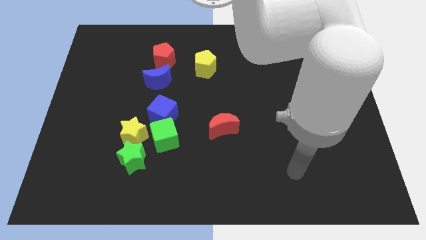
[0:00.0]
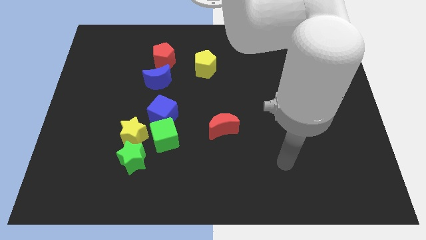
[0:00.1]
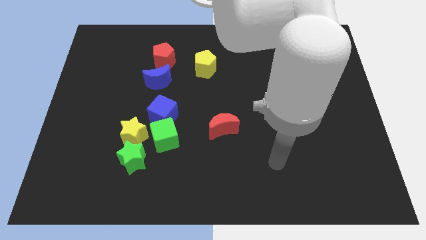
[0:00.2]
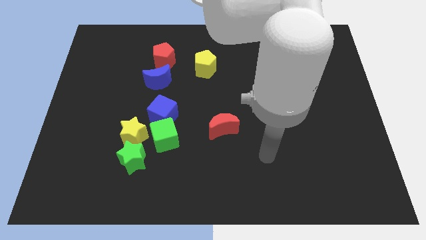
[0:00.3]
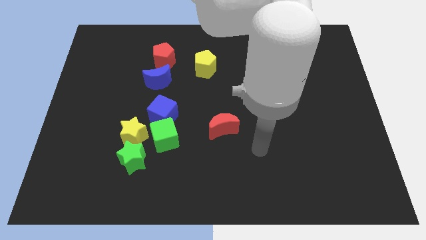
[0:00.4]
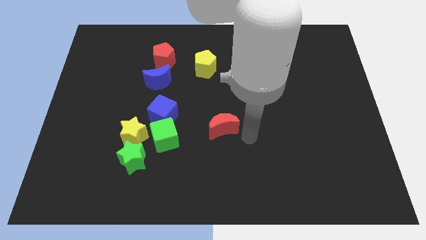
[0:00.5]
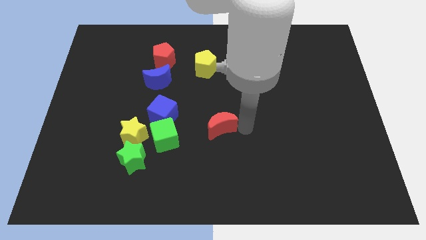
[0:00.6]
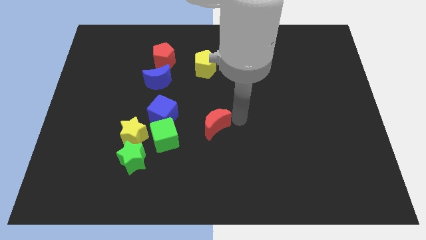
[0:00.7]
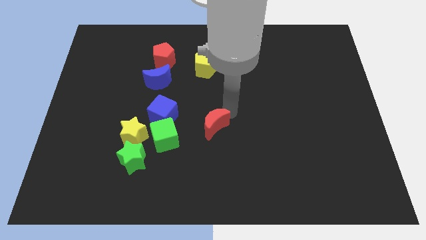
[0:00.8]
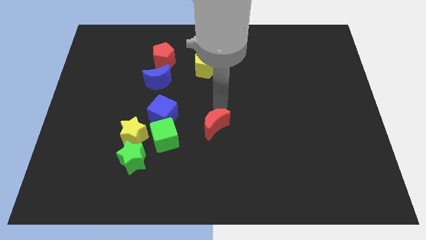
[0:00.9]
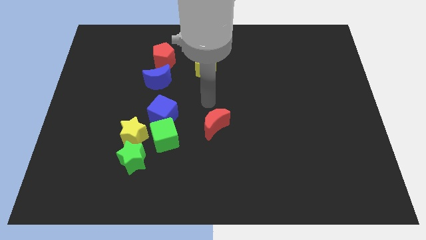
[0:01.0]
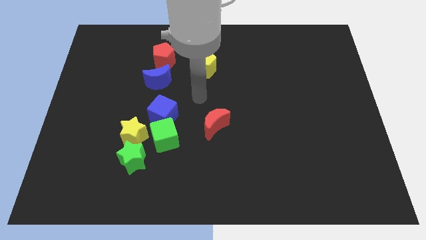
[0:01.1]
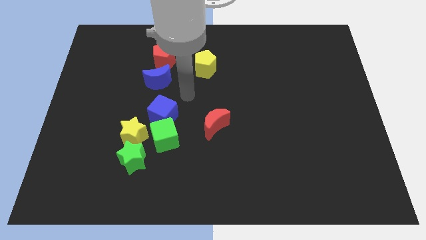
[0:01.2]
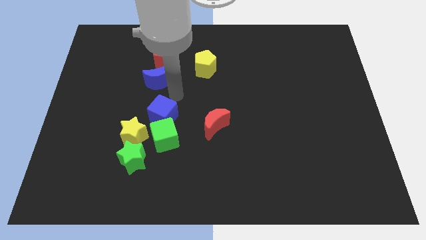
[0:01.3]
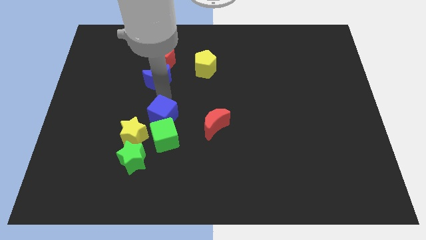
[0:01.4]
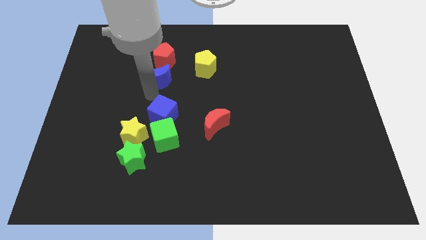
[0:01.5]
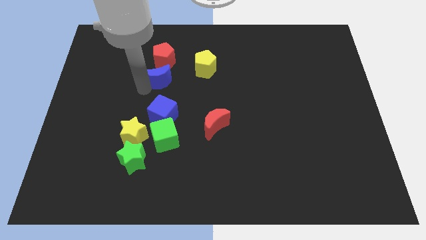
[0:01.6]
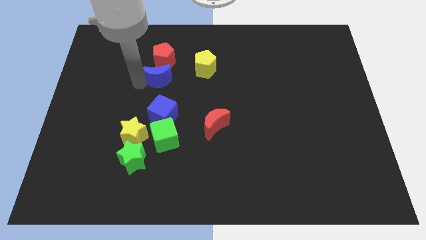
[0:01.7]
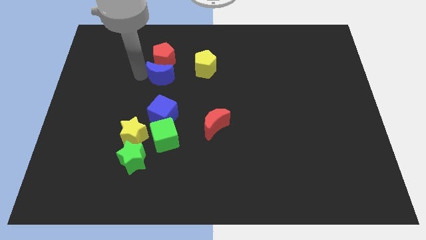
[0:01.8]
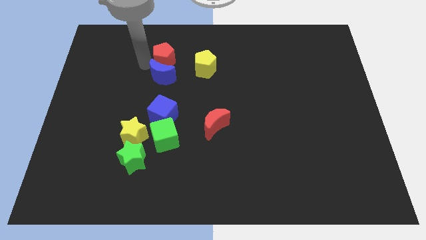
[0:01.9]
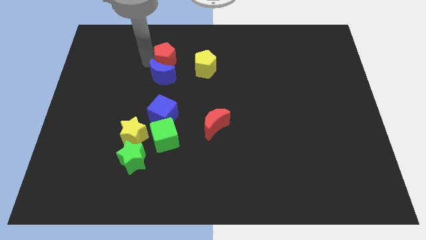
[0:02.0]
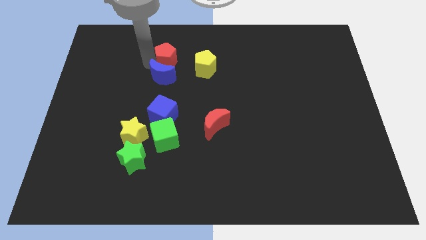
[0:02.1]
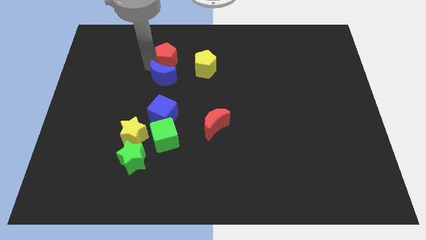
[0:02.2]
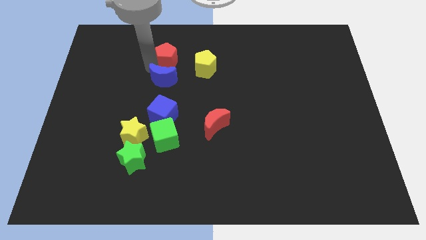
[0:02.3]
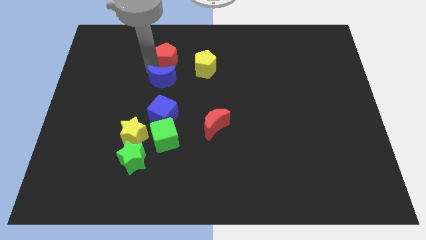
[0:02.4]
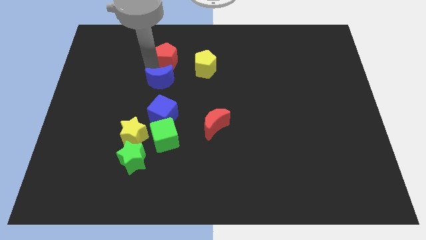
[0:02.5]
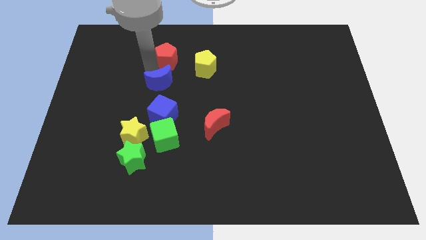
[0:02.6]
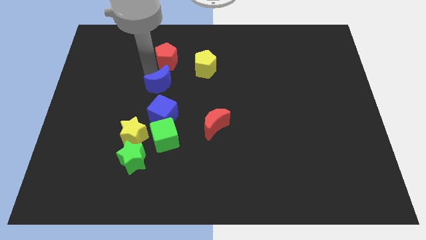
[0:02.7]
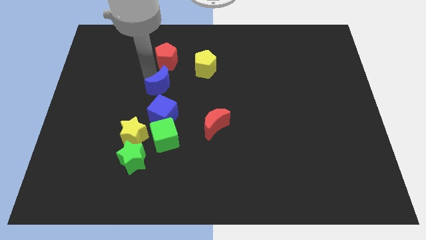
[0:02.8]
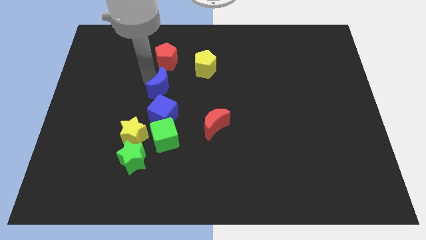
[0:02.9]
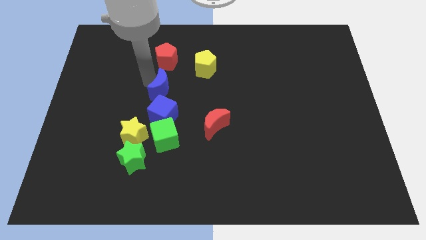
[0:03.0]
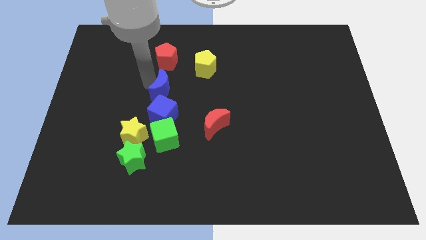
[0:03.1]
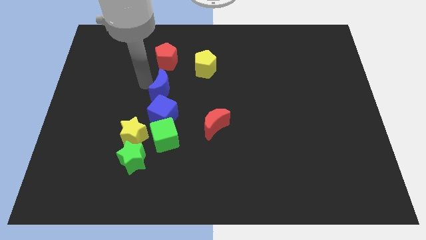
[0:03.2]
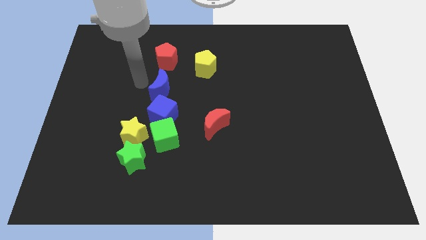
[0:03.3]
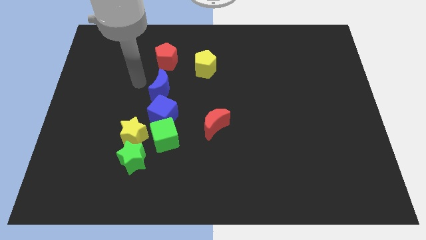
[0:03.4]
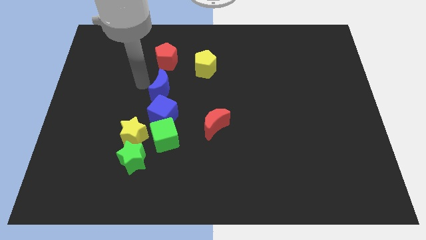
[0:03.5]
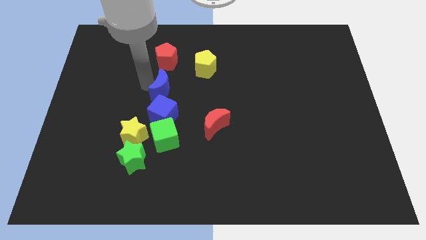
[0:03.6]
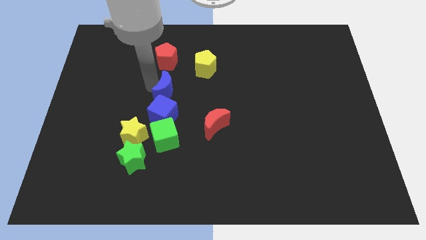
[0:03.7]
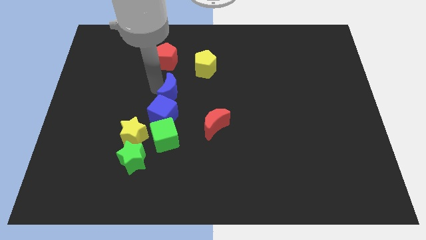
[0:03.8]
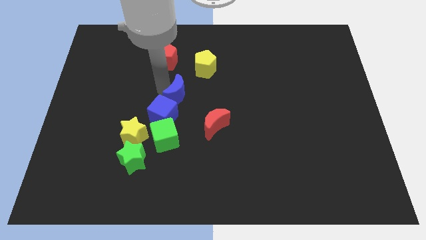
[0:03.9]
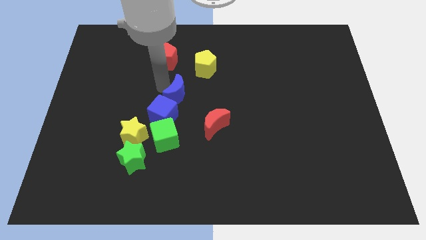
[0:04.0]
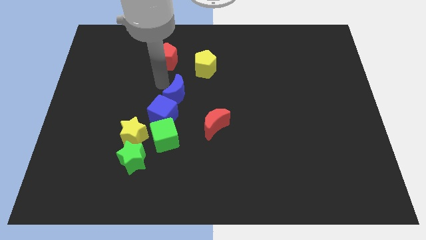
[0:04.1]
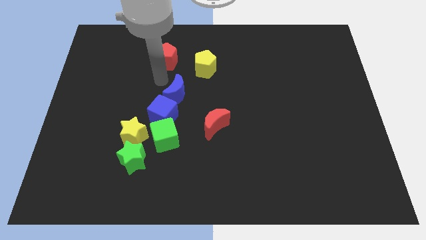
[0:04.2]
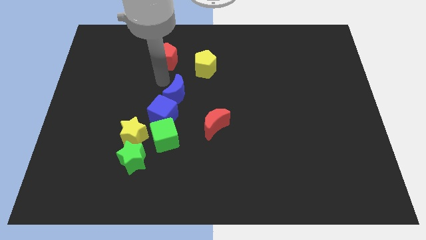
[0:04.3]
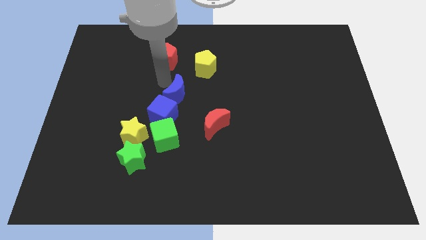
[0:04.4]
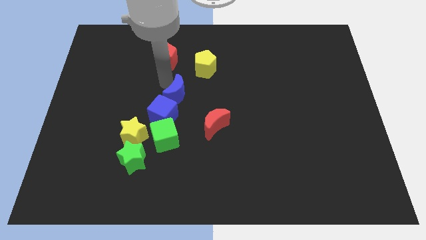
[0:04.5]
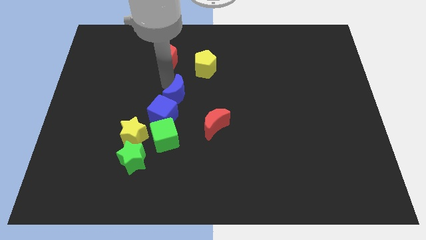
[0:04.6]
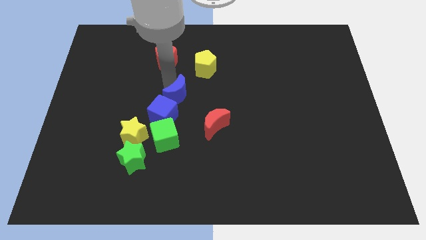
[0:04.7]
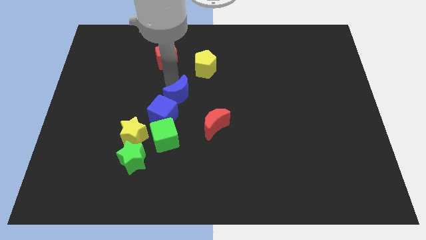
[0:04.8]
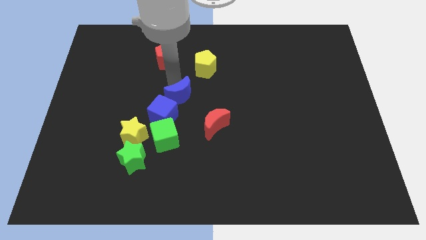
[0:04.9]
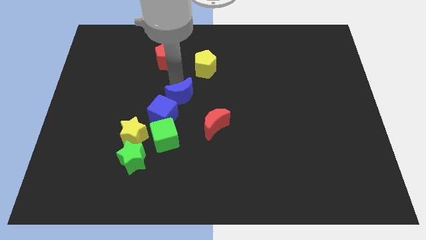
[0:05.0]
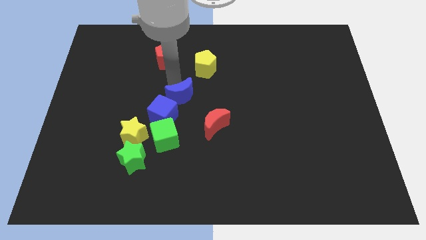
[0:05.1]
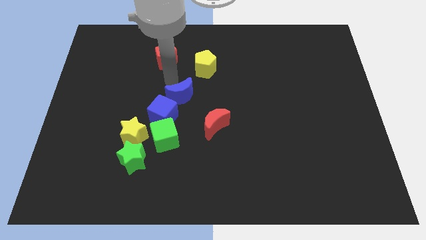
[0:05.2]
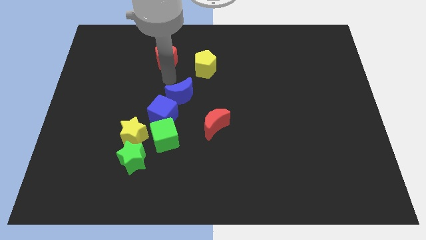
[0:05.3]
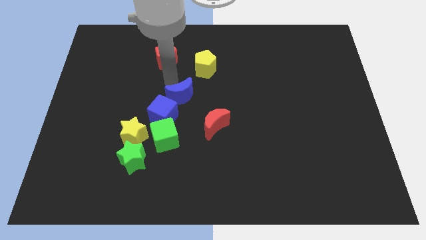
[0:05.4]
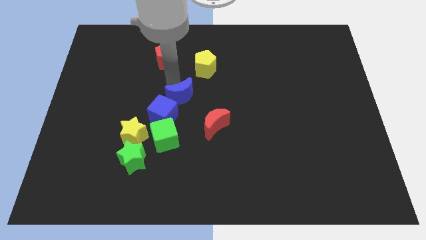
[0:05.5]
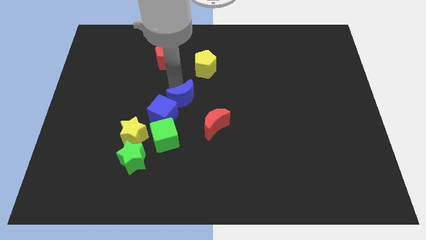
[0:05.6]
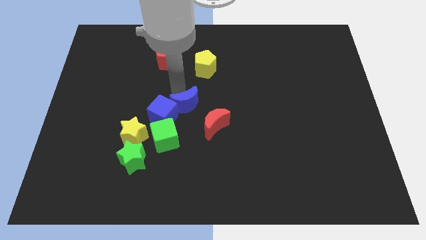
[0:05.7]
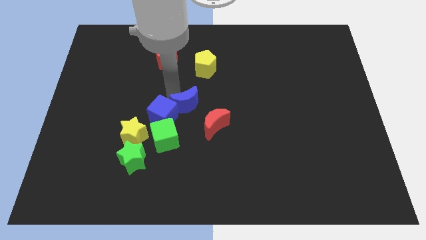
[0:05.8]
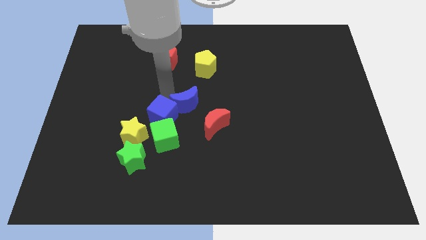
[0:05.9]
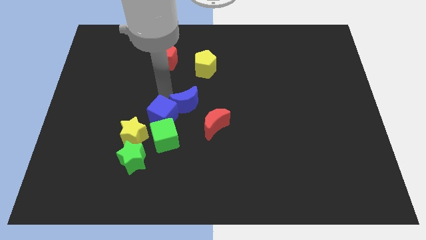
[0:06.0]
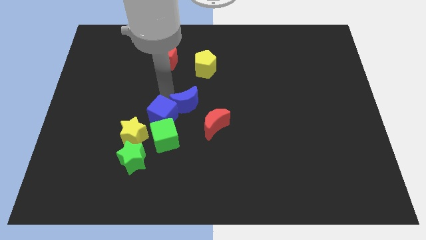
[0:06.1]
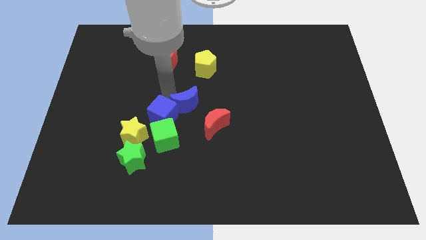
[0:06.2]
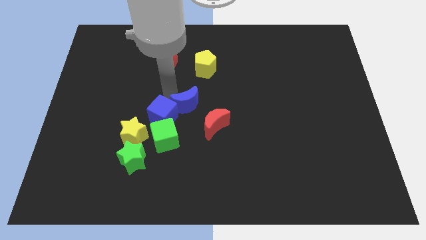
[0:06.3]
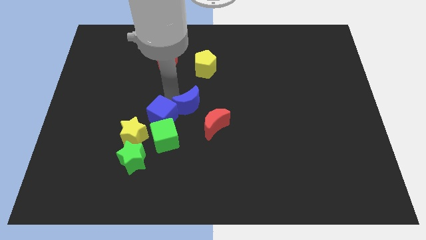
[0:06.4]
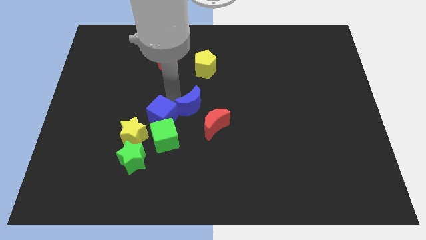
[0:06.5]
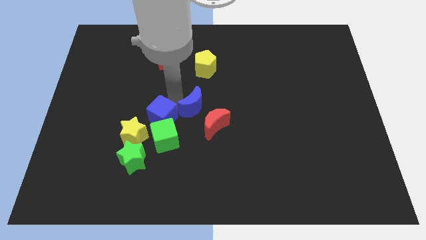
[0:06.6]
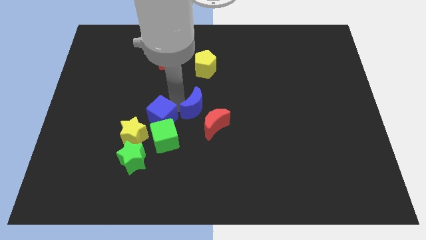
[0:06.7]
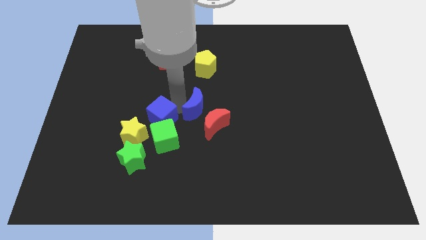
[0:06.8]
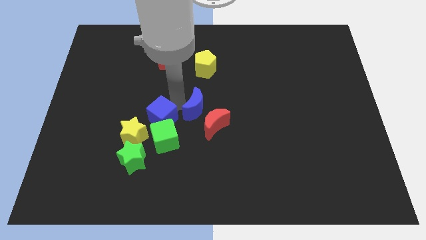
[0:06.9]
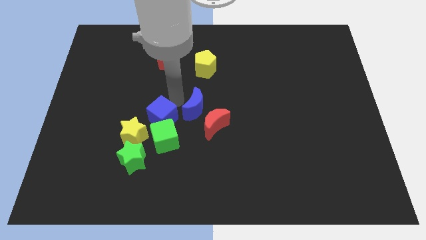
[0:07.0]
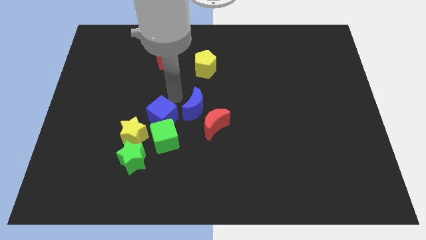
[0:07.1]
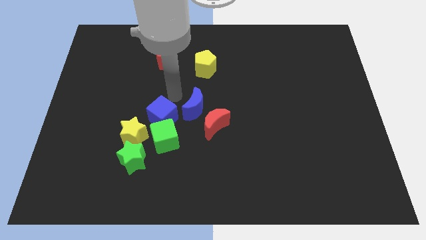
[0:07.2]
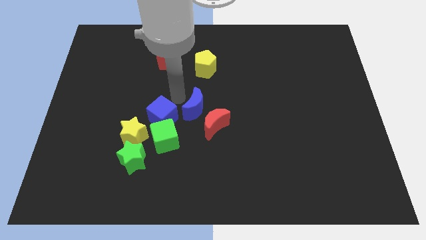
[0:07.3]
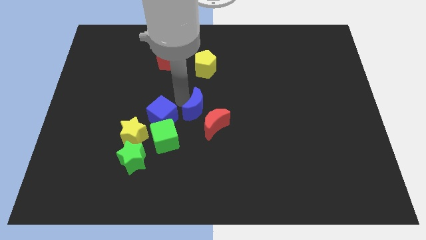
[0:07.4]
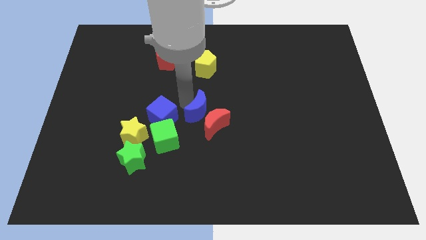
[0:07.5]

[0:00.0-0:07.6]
move the blue moon to the red moon
